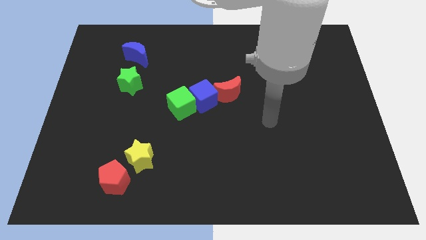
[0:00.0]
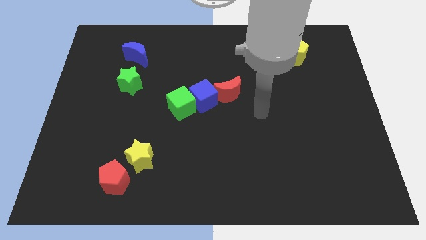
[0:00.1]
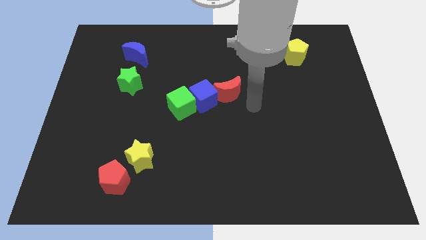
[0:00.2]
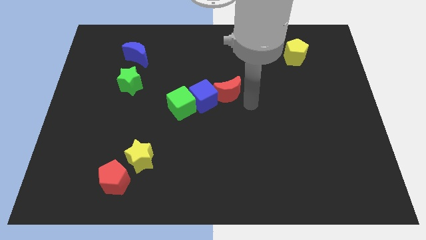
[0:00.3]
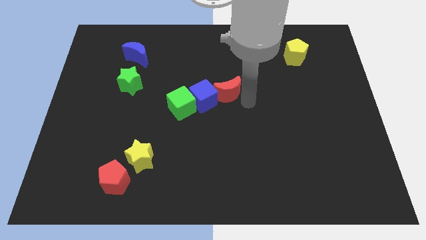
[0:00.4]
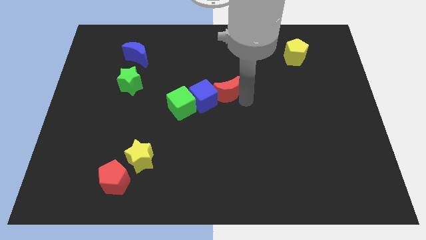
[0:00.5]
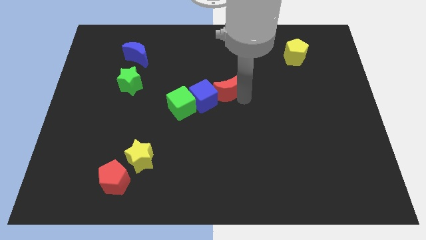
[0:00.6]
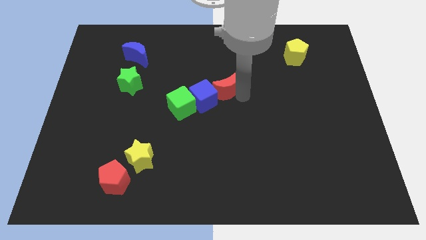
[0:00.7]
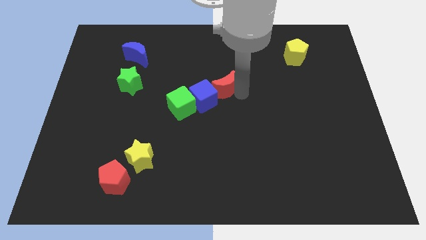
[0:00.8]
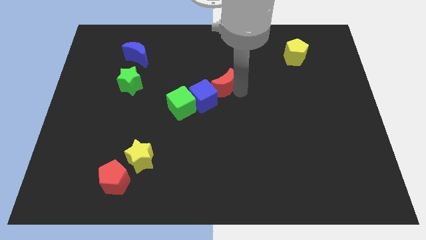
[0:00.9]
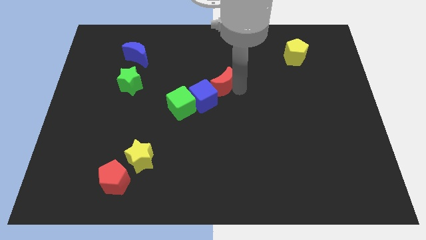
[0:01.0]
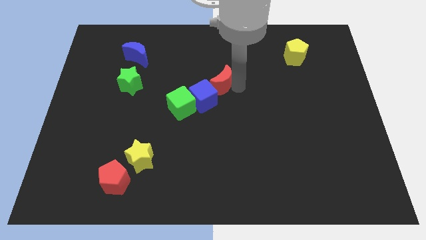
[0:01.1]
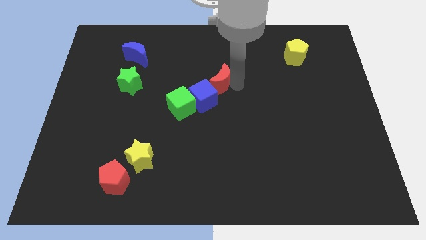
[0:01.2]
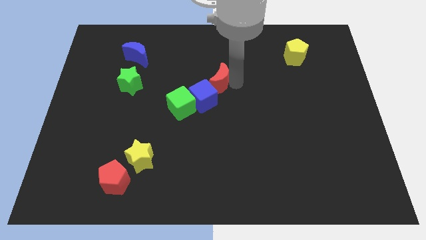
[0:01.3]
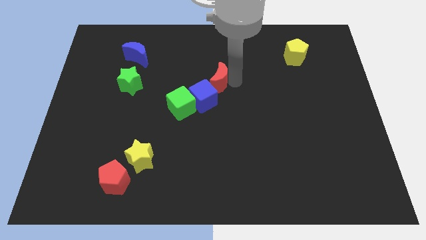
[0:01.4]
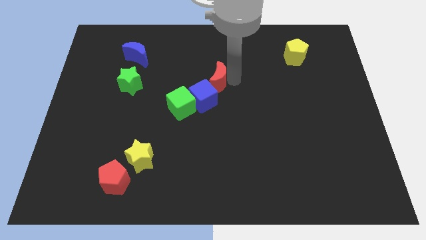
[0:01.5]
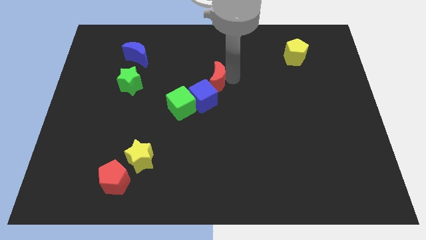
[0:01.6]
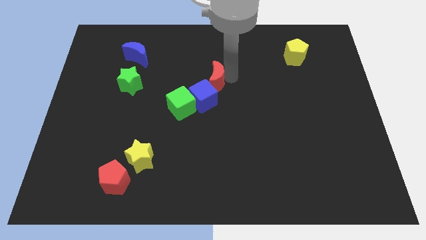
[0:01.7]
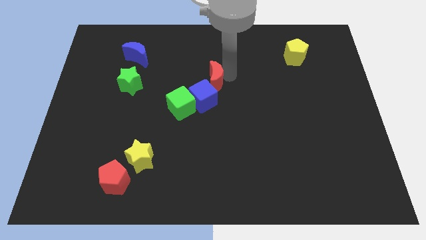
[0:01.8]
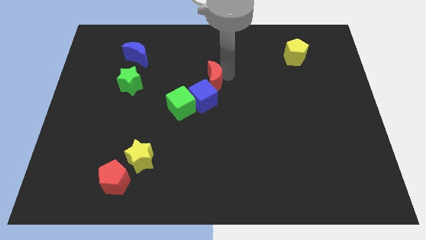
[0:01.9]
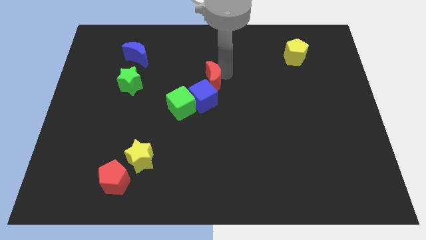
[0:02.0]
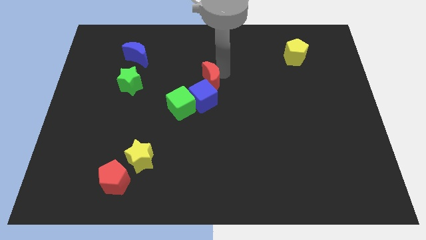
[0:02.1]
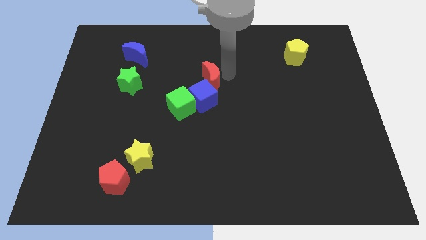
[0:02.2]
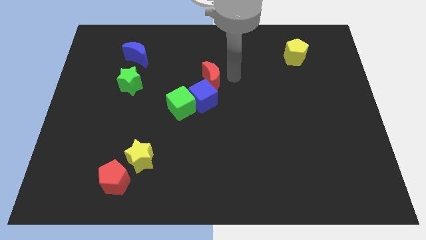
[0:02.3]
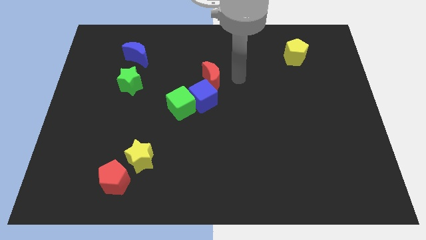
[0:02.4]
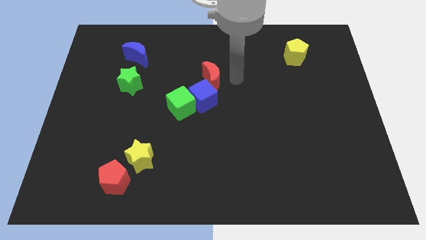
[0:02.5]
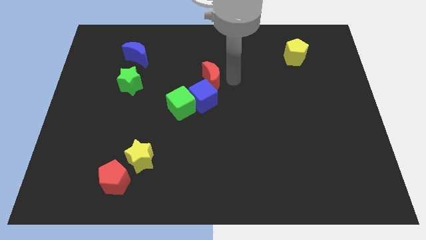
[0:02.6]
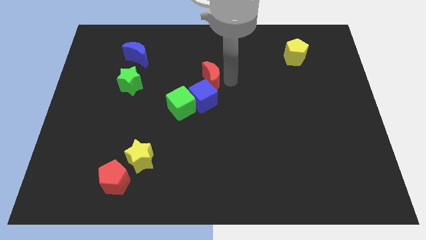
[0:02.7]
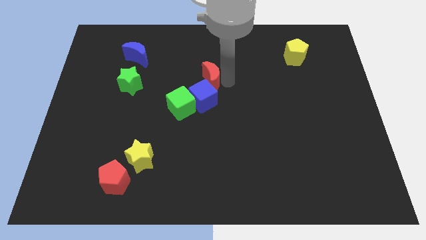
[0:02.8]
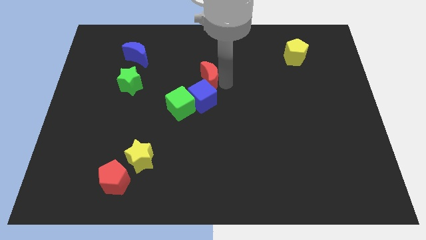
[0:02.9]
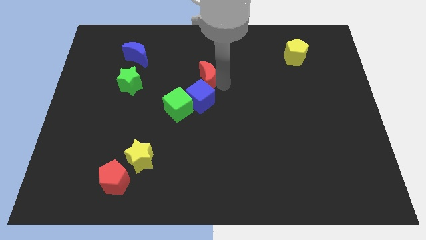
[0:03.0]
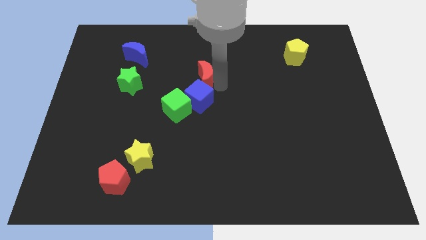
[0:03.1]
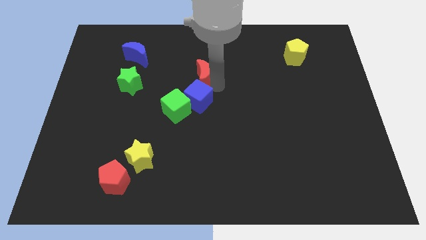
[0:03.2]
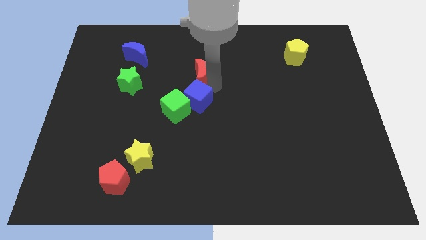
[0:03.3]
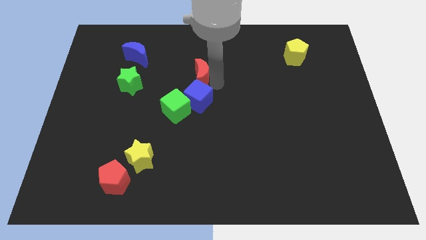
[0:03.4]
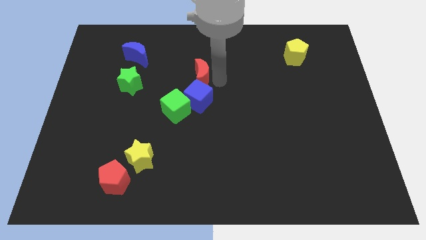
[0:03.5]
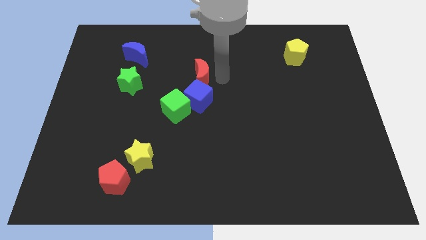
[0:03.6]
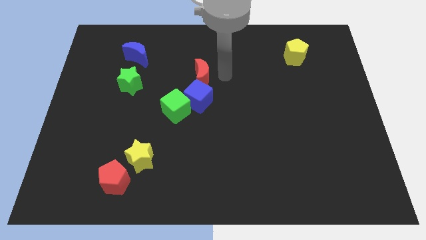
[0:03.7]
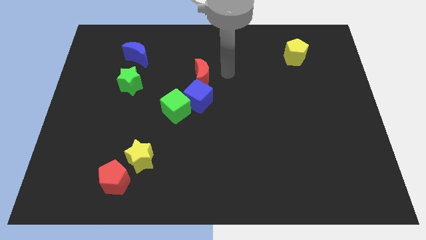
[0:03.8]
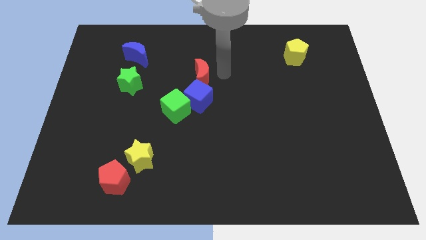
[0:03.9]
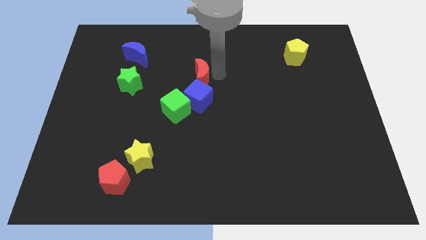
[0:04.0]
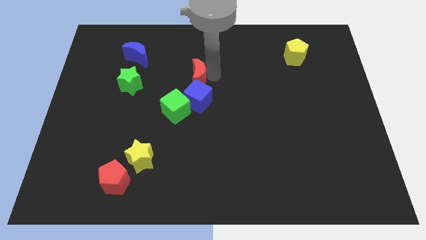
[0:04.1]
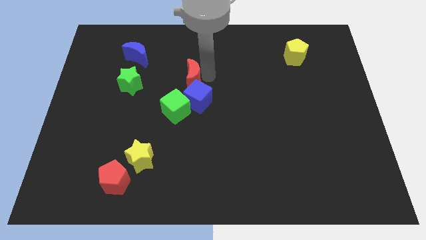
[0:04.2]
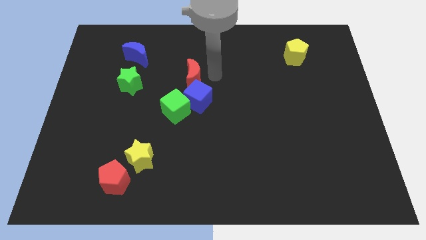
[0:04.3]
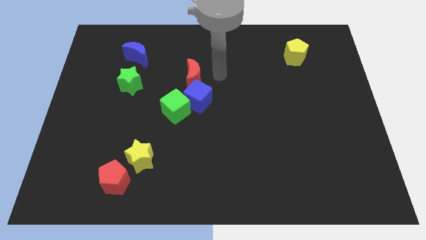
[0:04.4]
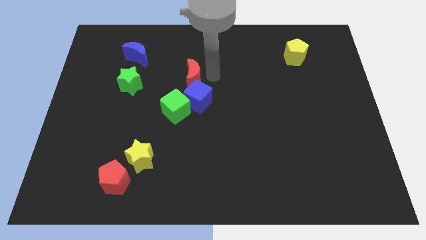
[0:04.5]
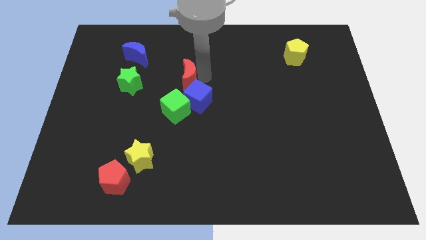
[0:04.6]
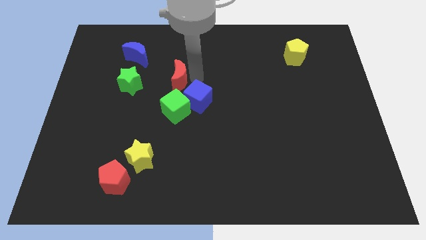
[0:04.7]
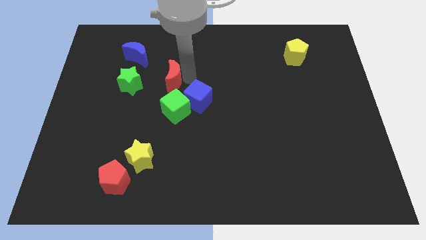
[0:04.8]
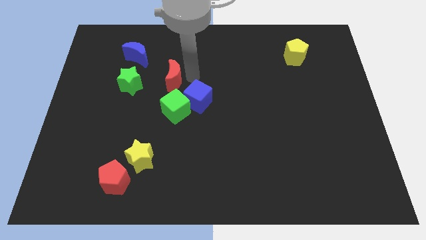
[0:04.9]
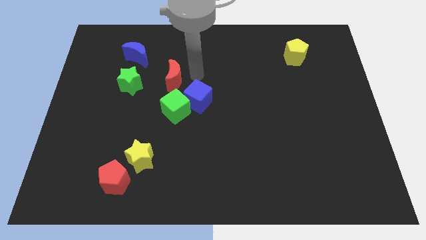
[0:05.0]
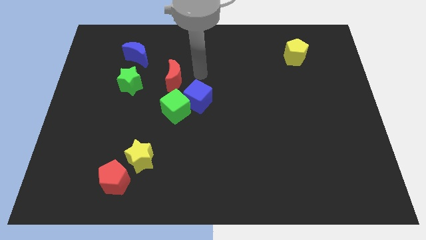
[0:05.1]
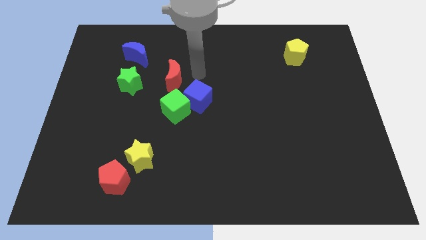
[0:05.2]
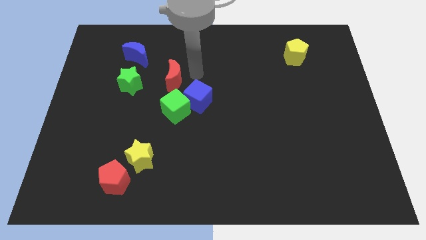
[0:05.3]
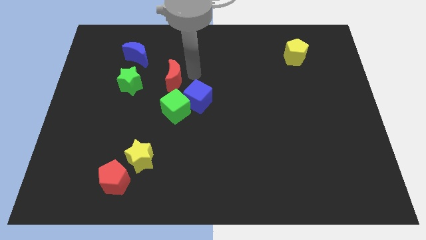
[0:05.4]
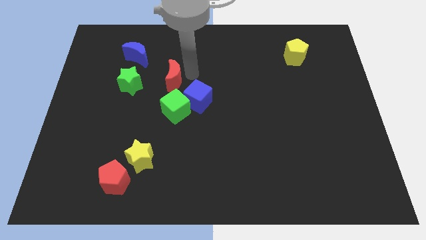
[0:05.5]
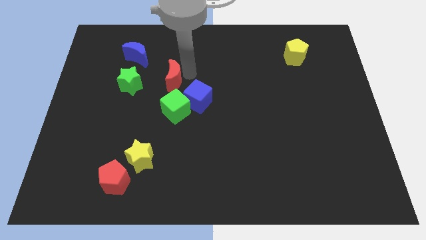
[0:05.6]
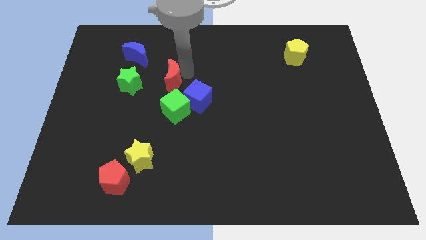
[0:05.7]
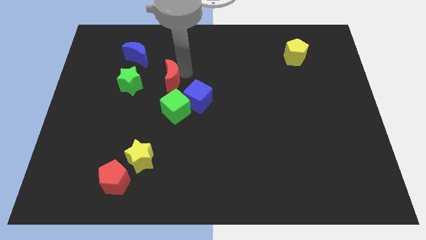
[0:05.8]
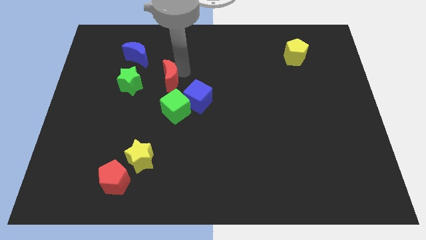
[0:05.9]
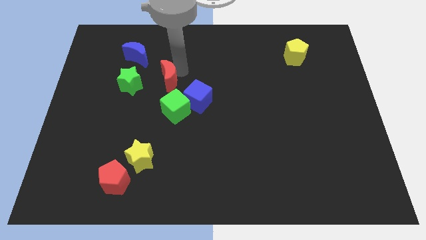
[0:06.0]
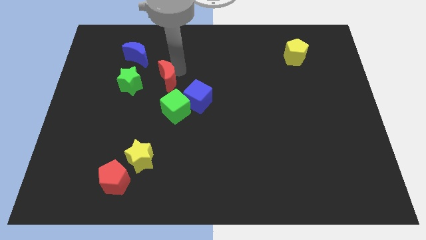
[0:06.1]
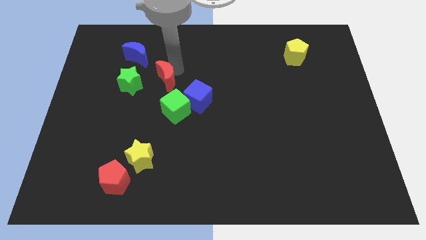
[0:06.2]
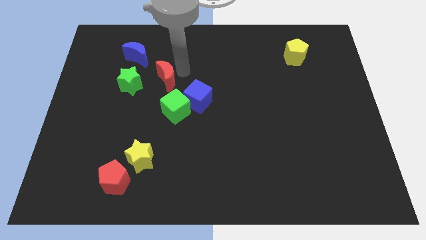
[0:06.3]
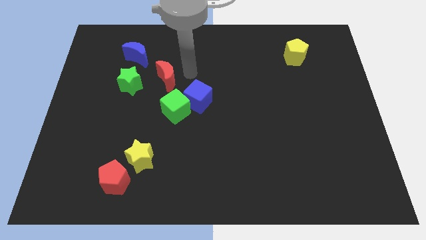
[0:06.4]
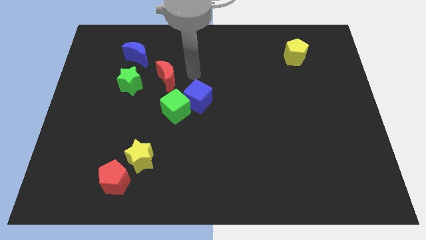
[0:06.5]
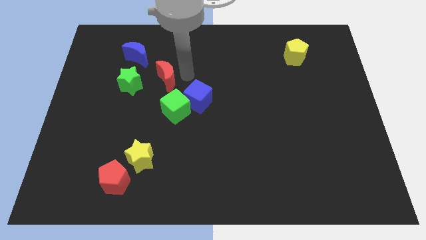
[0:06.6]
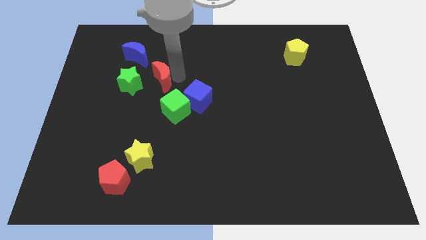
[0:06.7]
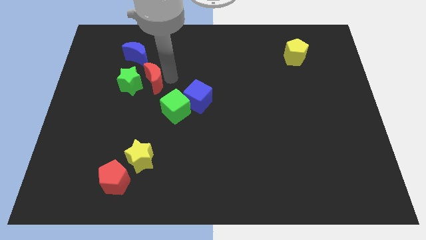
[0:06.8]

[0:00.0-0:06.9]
slide the red moon to the green star
